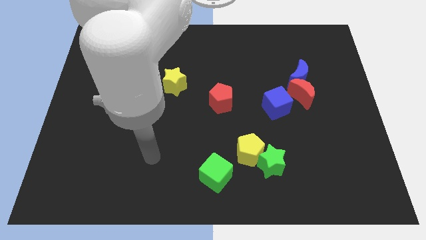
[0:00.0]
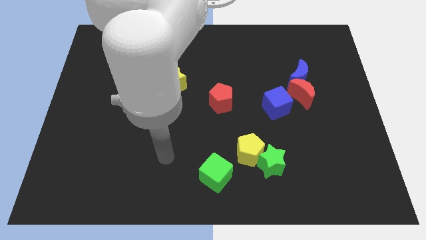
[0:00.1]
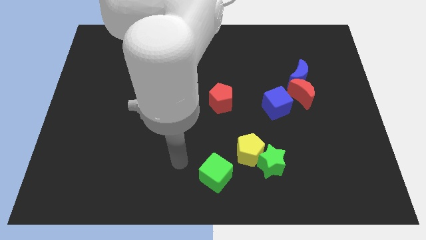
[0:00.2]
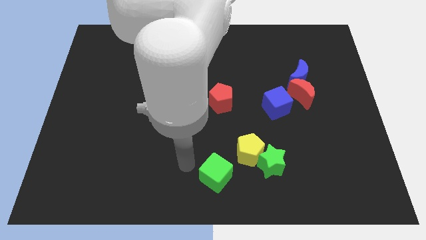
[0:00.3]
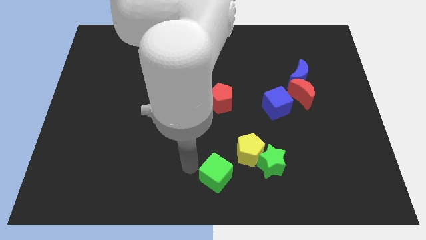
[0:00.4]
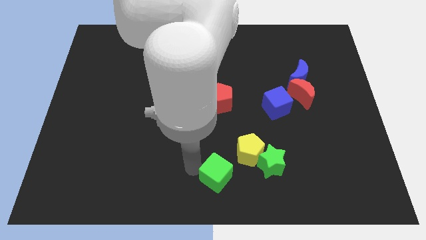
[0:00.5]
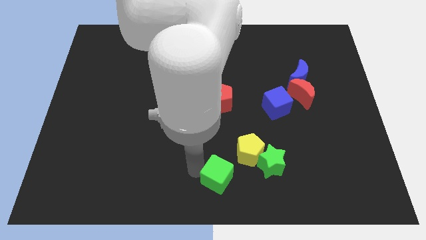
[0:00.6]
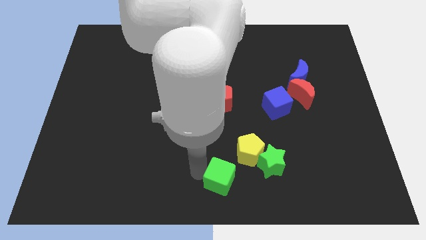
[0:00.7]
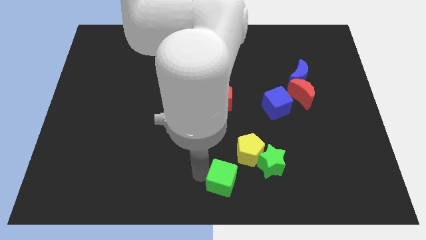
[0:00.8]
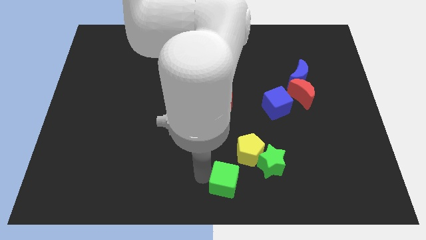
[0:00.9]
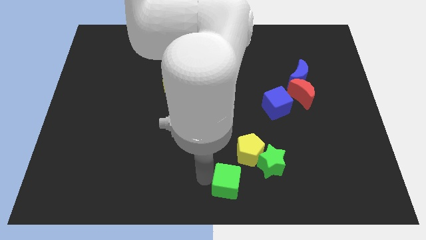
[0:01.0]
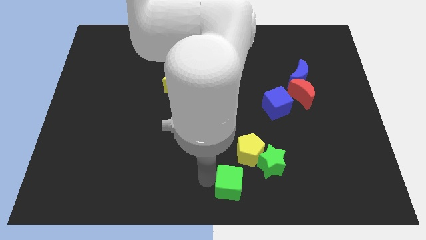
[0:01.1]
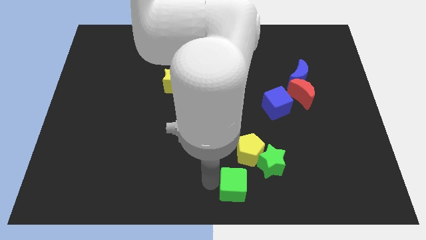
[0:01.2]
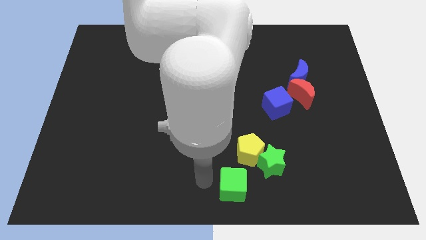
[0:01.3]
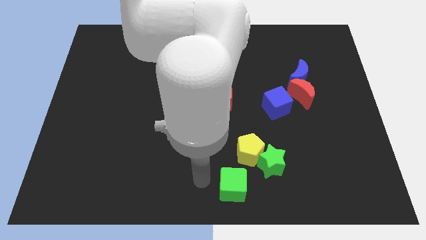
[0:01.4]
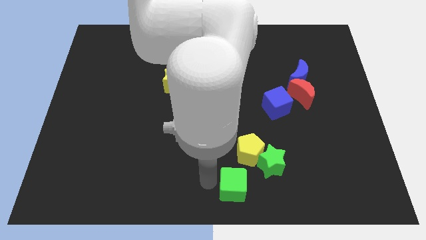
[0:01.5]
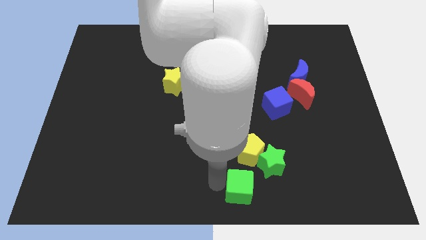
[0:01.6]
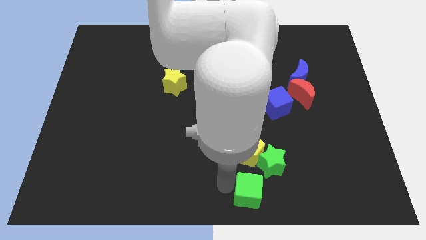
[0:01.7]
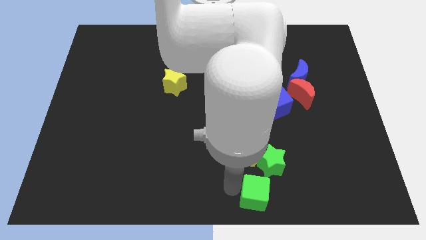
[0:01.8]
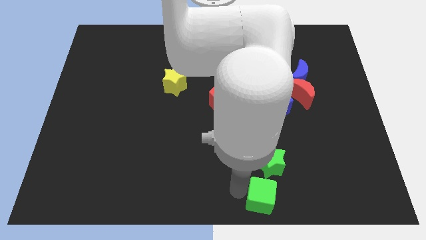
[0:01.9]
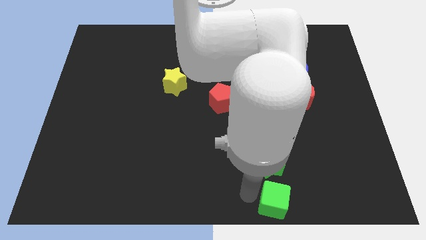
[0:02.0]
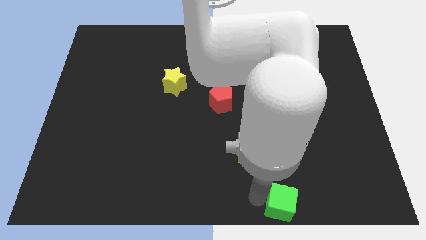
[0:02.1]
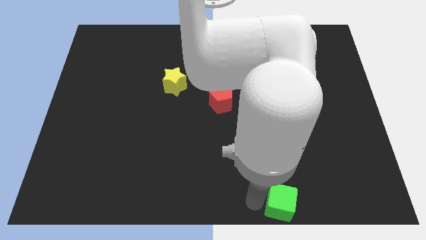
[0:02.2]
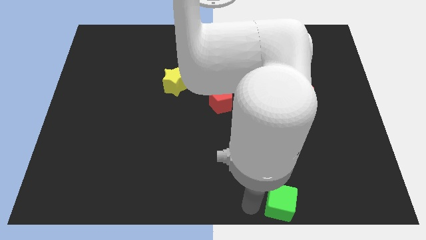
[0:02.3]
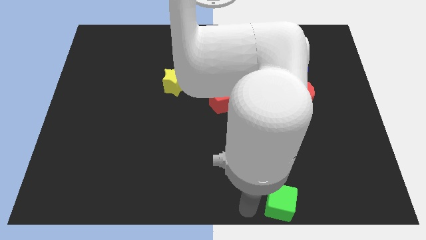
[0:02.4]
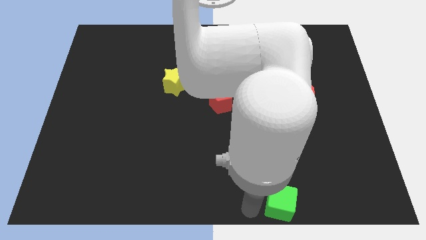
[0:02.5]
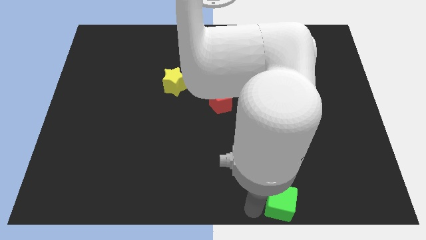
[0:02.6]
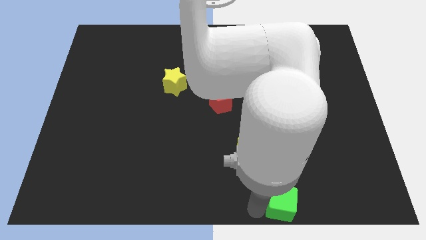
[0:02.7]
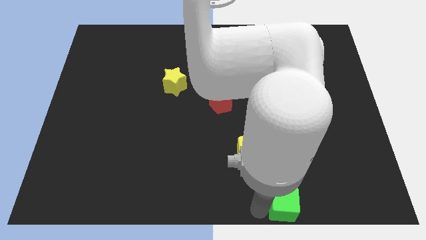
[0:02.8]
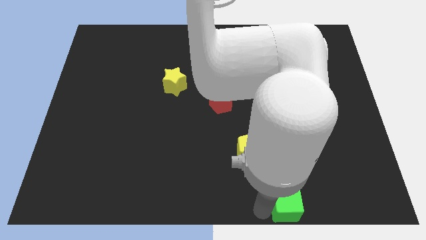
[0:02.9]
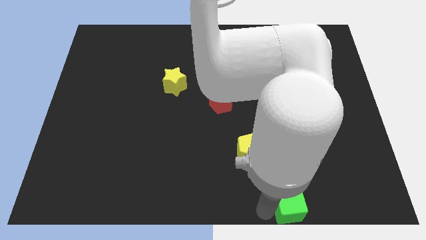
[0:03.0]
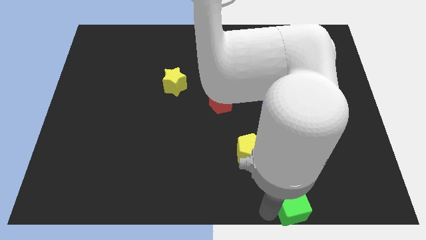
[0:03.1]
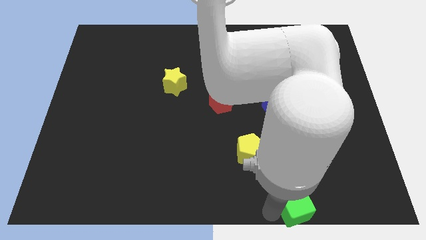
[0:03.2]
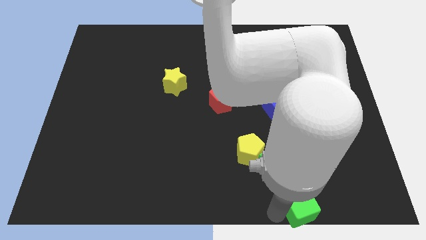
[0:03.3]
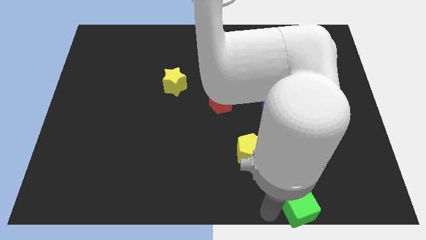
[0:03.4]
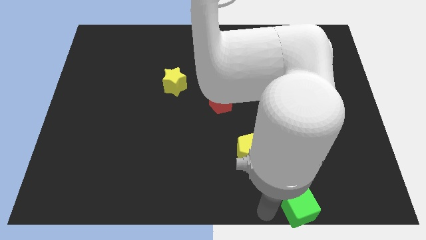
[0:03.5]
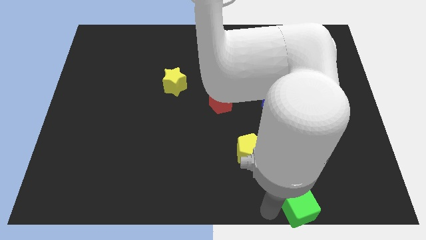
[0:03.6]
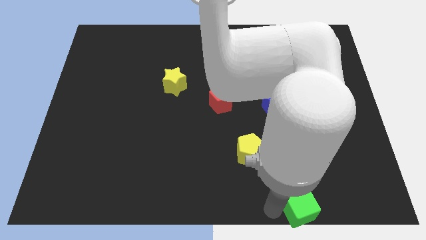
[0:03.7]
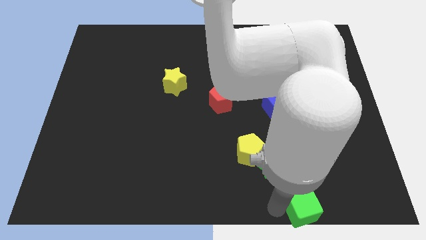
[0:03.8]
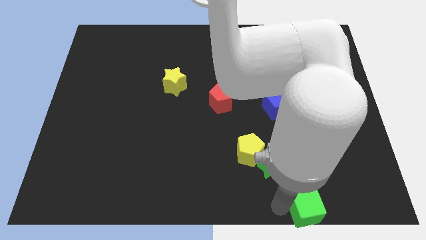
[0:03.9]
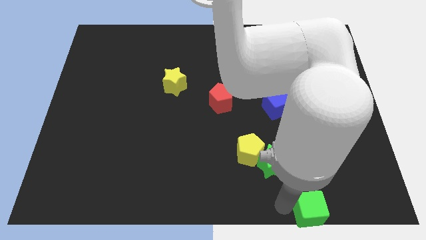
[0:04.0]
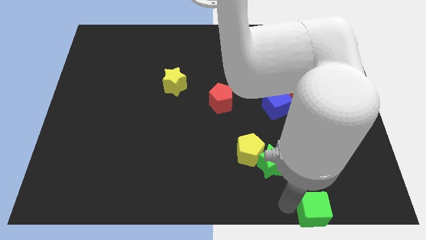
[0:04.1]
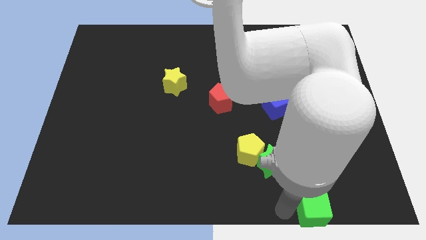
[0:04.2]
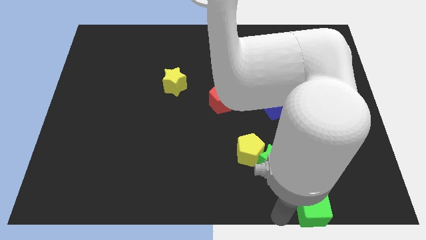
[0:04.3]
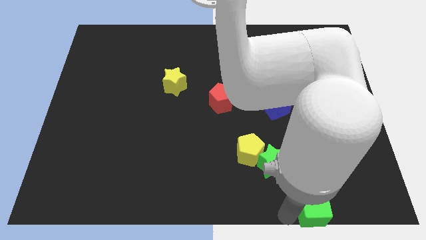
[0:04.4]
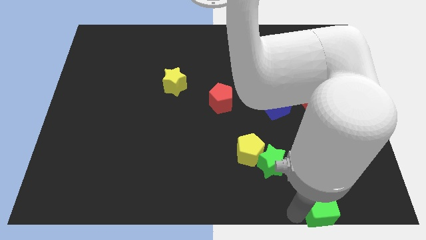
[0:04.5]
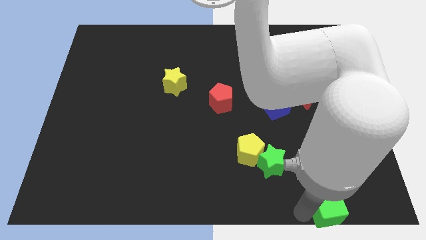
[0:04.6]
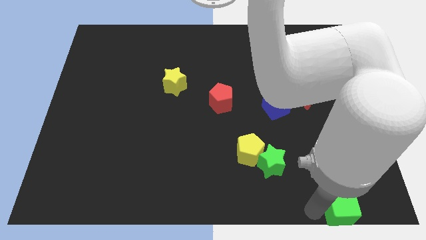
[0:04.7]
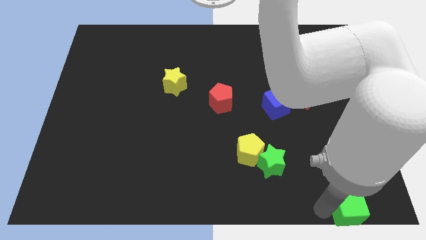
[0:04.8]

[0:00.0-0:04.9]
push the green cube to the bottom right

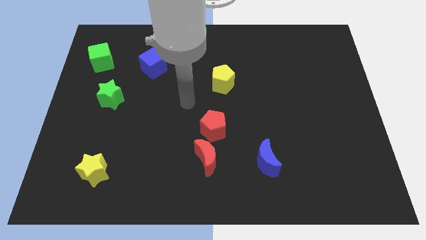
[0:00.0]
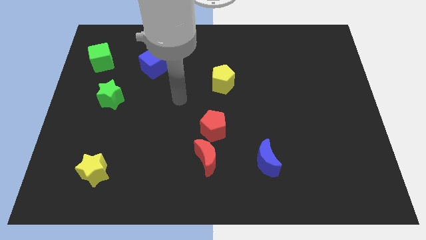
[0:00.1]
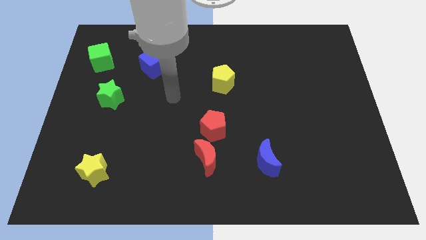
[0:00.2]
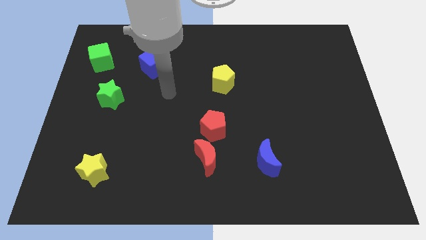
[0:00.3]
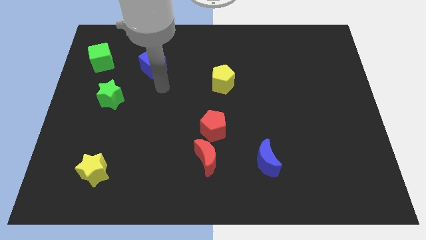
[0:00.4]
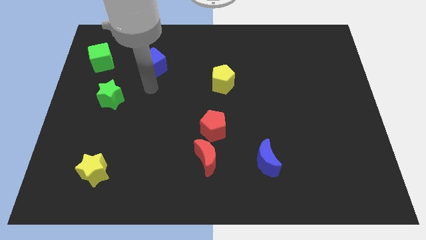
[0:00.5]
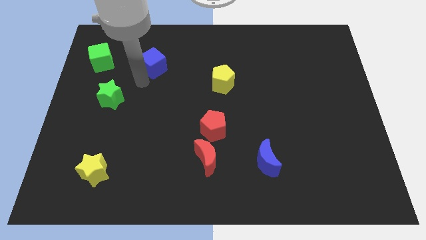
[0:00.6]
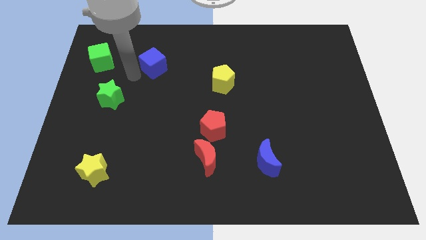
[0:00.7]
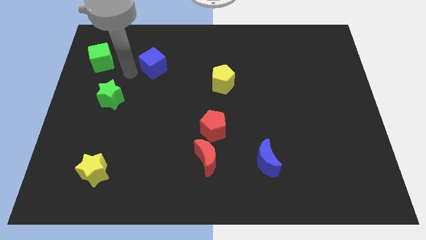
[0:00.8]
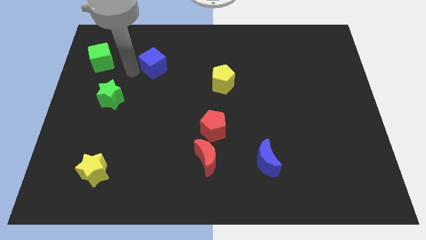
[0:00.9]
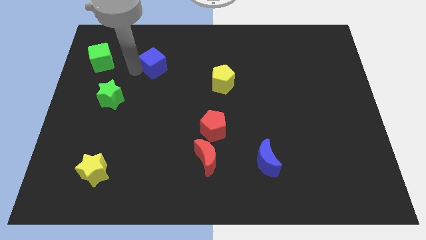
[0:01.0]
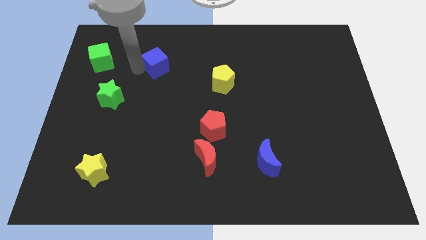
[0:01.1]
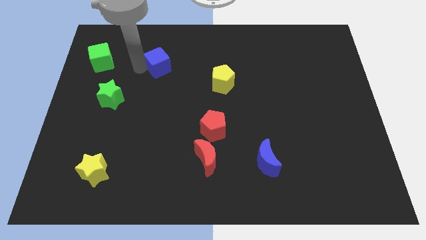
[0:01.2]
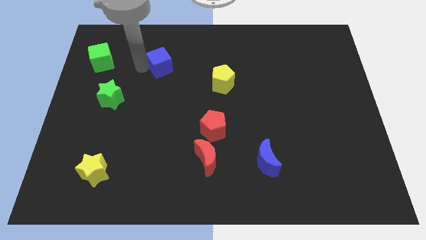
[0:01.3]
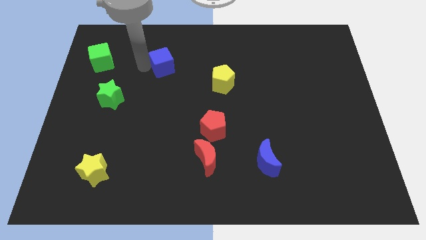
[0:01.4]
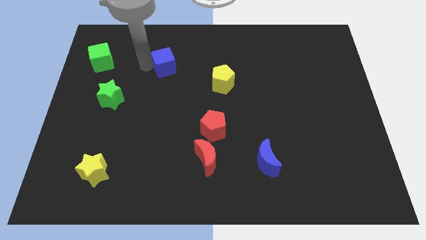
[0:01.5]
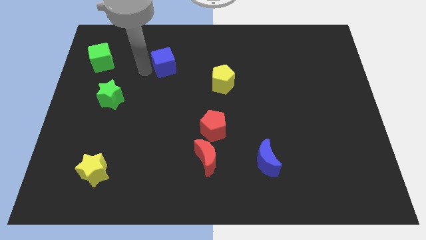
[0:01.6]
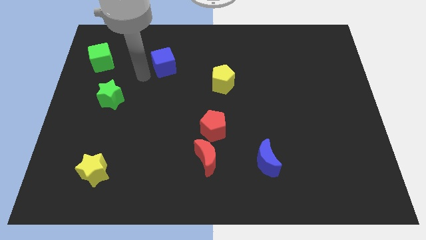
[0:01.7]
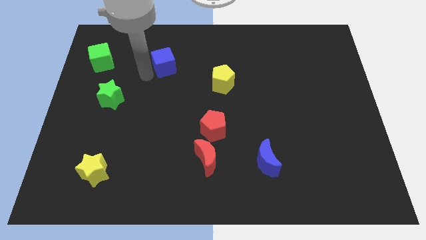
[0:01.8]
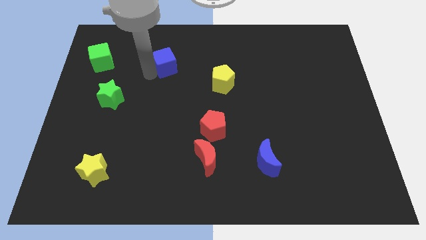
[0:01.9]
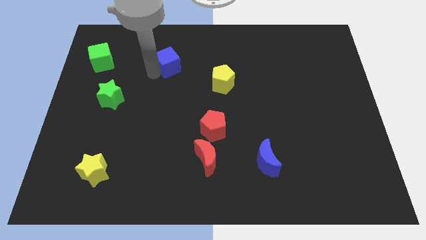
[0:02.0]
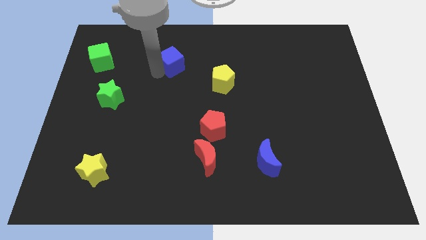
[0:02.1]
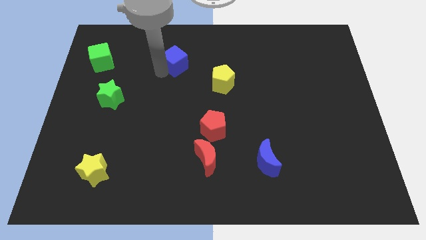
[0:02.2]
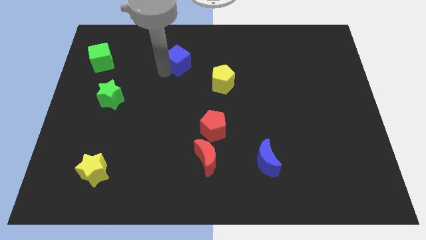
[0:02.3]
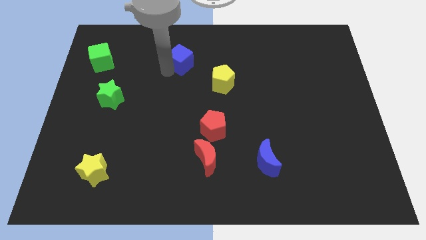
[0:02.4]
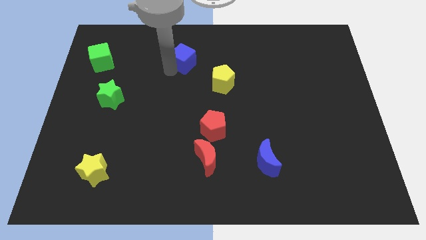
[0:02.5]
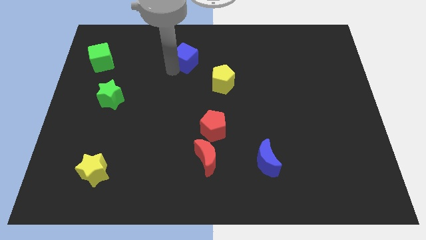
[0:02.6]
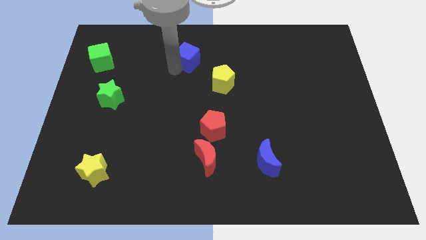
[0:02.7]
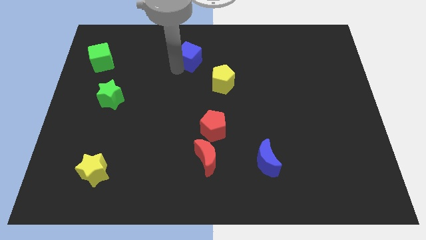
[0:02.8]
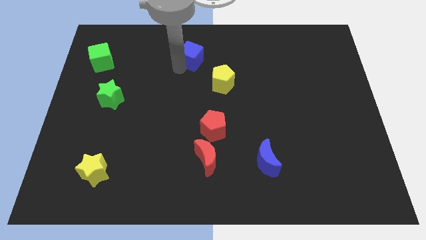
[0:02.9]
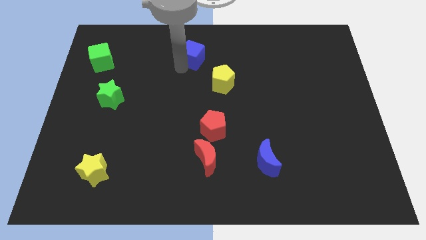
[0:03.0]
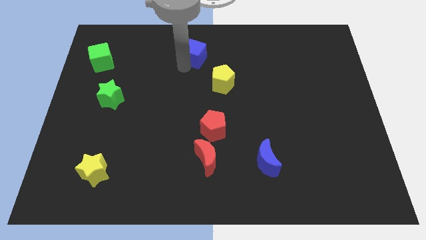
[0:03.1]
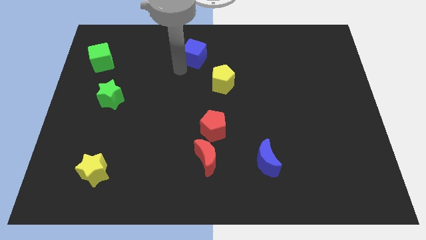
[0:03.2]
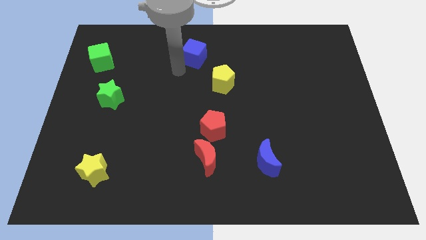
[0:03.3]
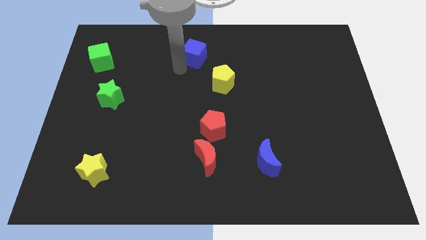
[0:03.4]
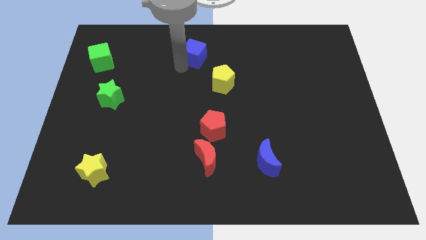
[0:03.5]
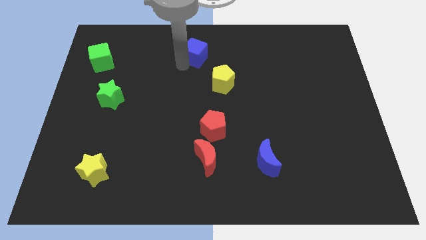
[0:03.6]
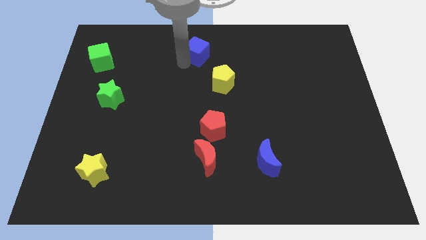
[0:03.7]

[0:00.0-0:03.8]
slide the blue cube to the top
